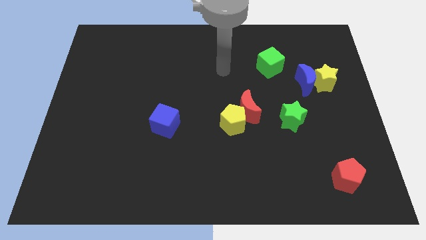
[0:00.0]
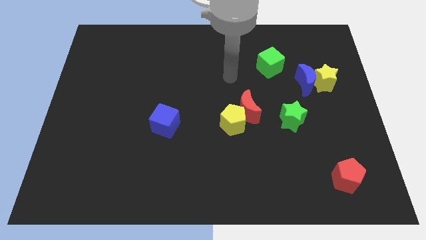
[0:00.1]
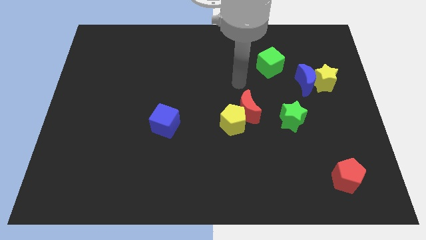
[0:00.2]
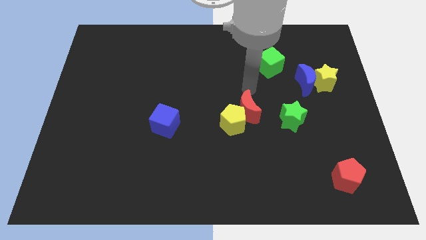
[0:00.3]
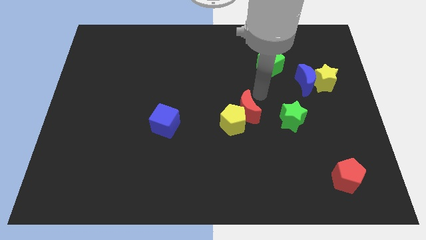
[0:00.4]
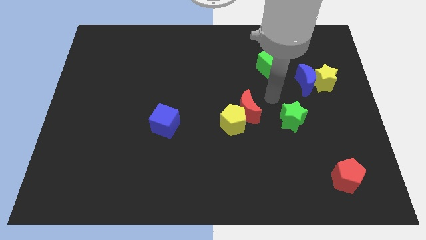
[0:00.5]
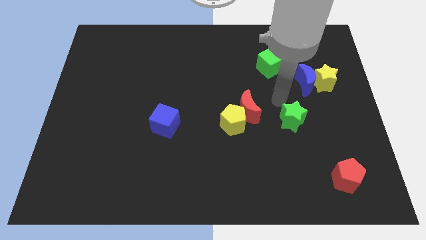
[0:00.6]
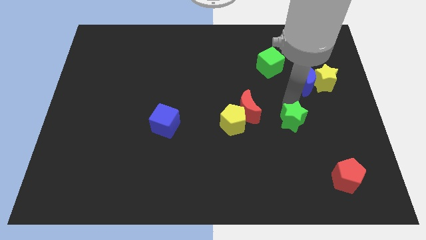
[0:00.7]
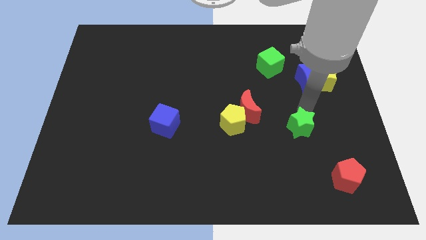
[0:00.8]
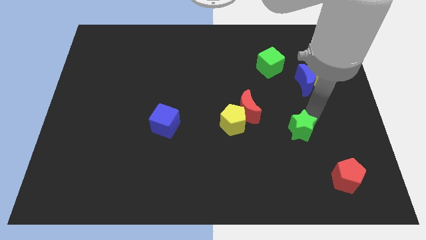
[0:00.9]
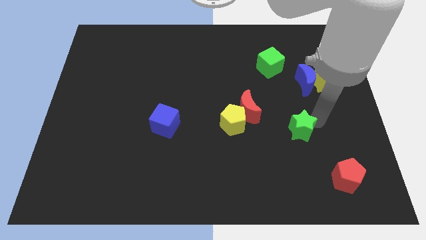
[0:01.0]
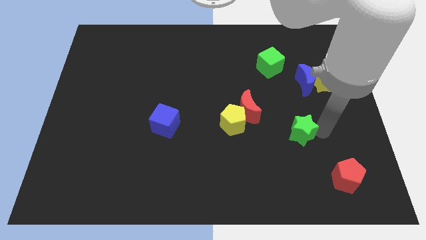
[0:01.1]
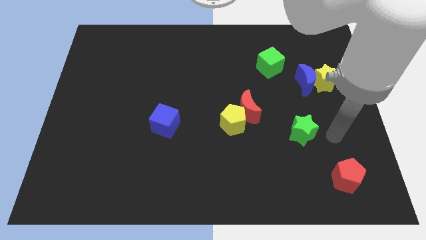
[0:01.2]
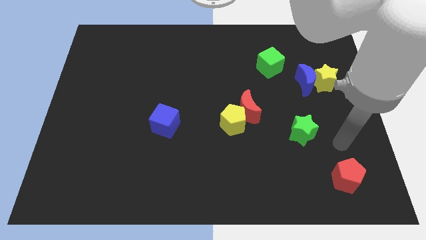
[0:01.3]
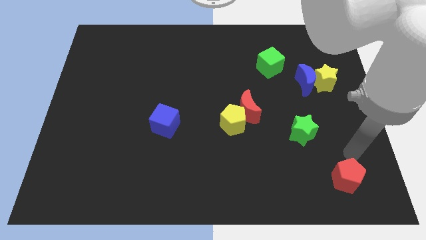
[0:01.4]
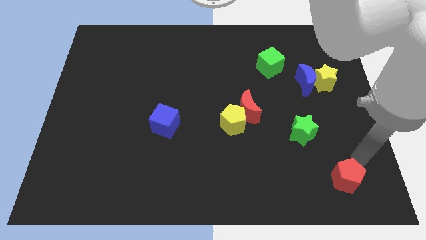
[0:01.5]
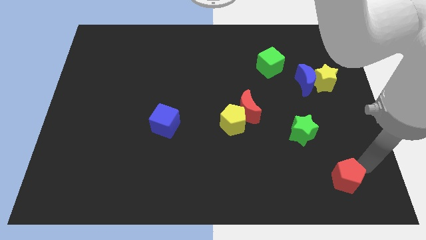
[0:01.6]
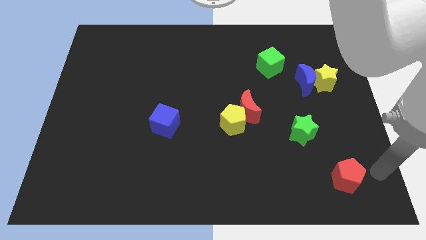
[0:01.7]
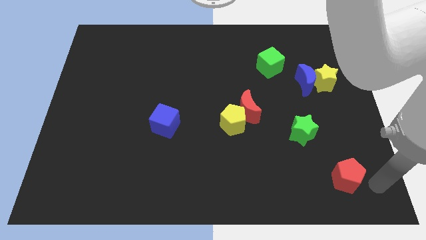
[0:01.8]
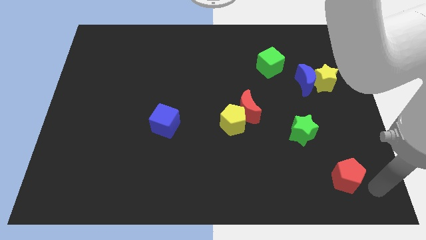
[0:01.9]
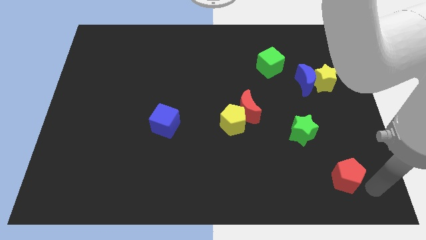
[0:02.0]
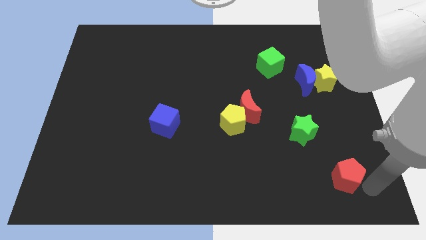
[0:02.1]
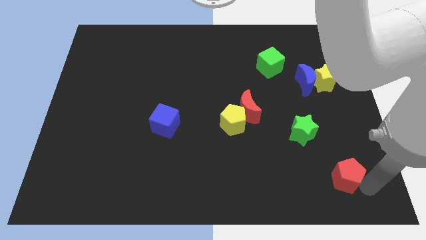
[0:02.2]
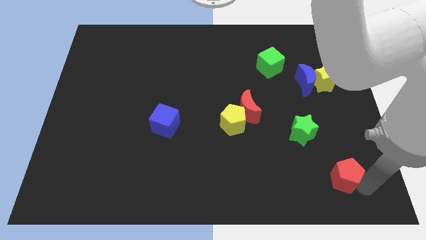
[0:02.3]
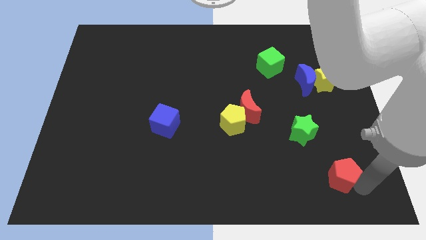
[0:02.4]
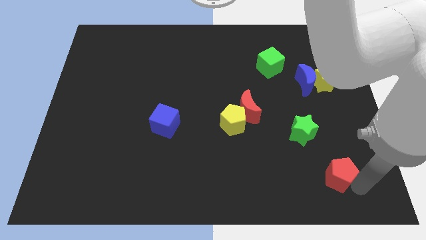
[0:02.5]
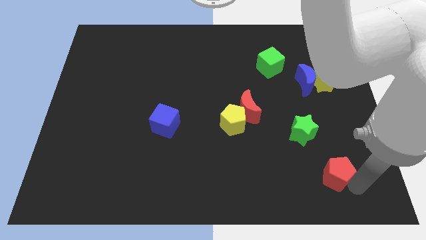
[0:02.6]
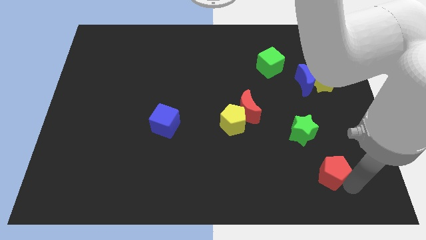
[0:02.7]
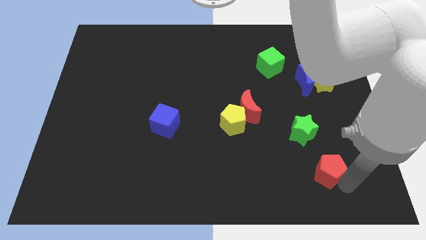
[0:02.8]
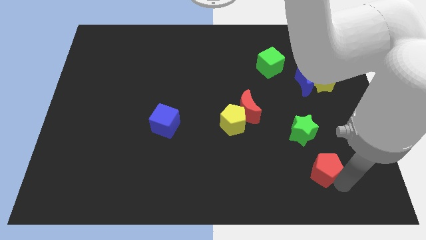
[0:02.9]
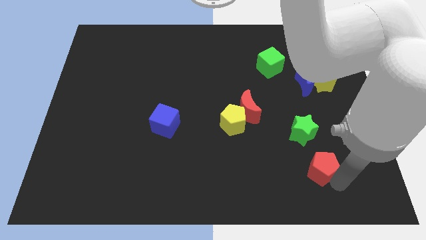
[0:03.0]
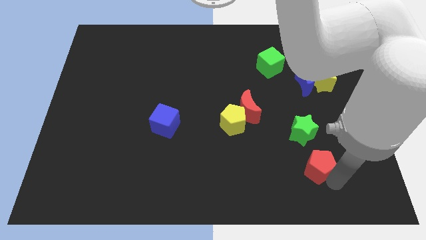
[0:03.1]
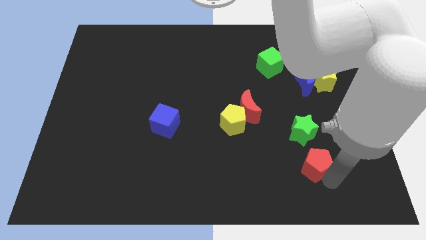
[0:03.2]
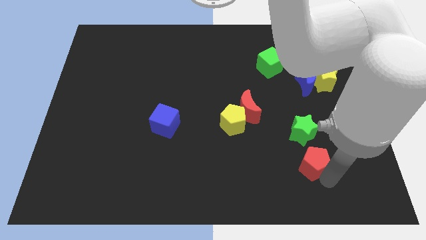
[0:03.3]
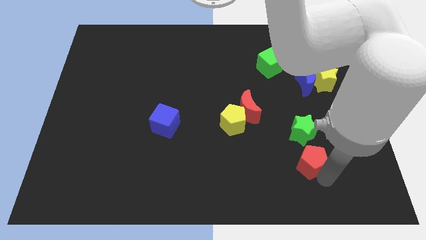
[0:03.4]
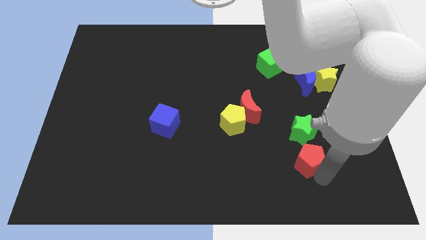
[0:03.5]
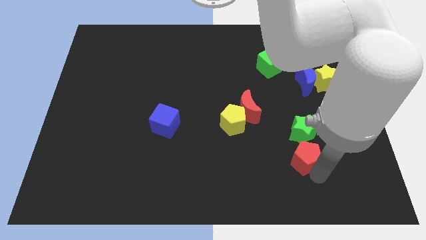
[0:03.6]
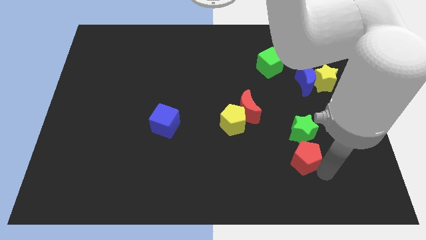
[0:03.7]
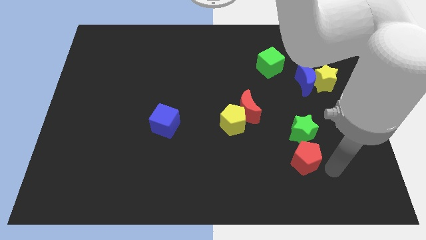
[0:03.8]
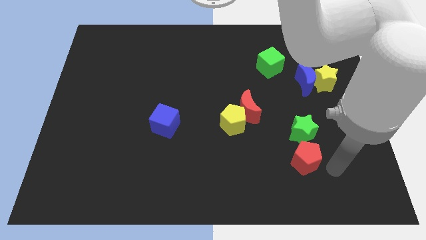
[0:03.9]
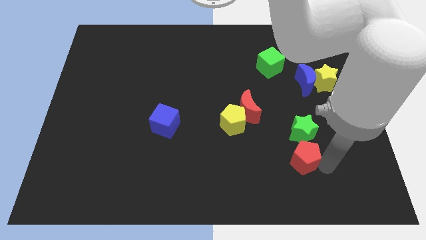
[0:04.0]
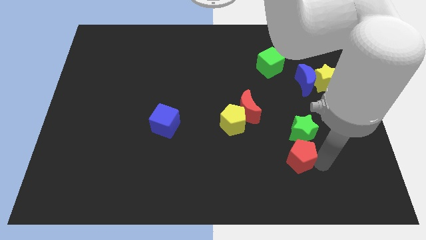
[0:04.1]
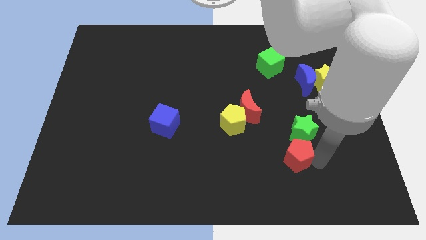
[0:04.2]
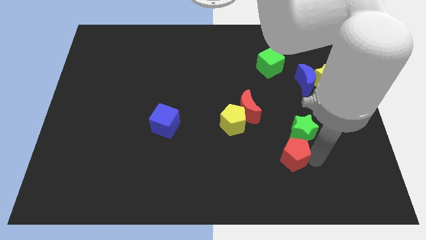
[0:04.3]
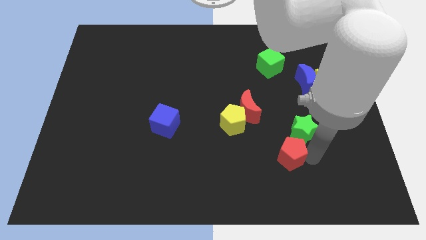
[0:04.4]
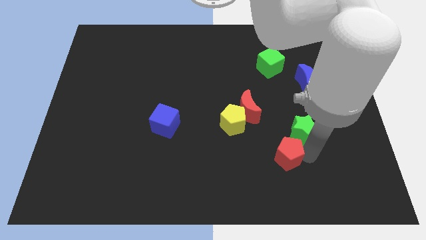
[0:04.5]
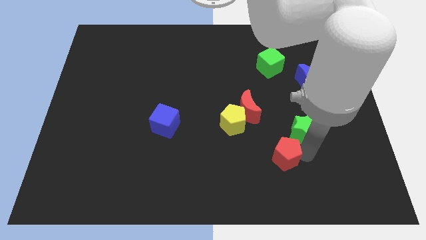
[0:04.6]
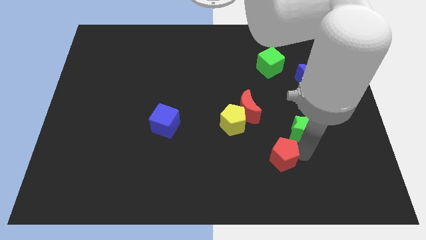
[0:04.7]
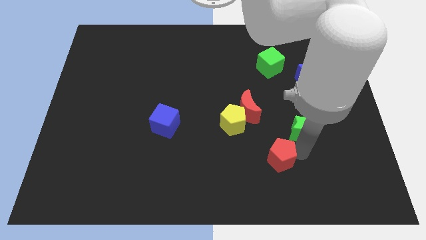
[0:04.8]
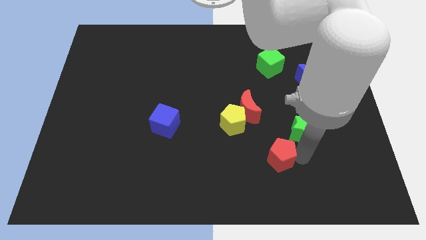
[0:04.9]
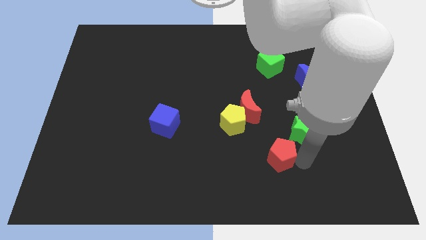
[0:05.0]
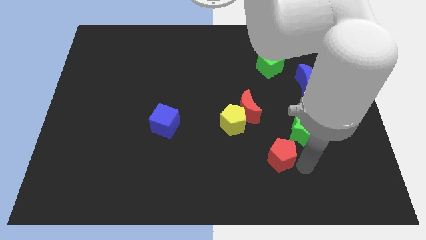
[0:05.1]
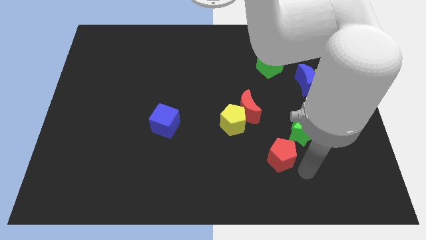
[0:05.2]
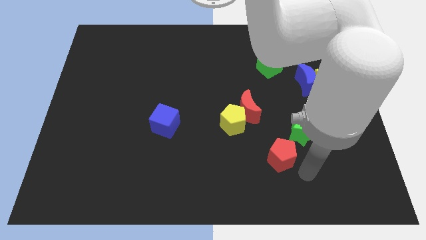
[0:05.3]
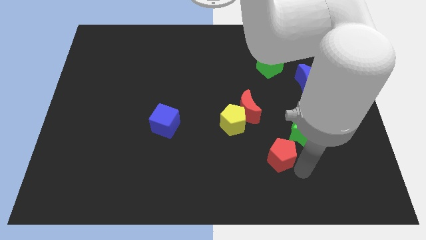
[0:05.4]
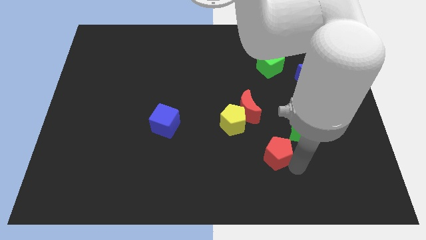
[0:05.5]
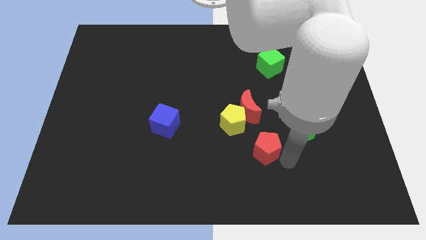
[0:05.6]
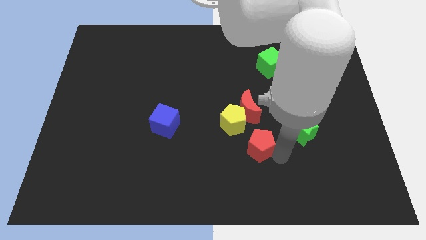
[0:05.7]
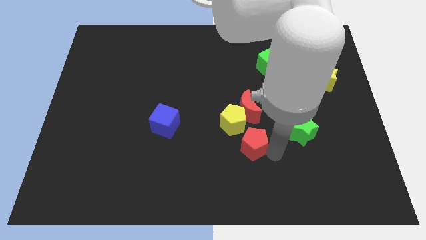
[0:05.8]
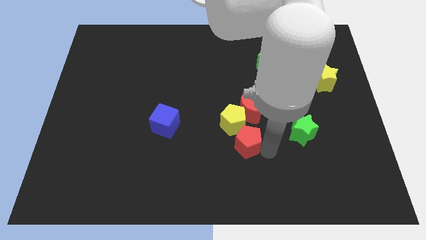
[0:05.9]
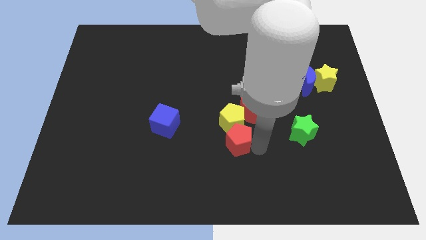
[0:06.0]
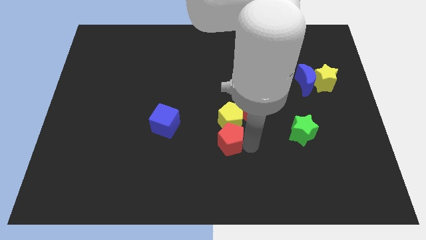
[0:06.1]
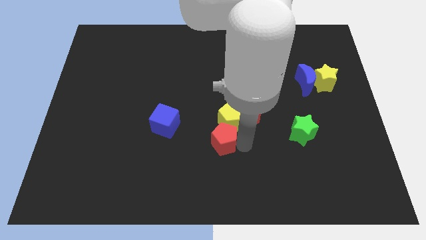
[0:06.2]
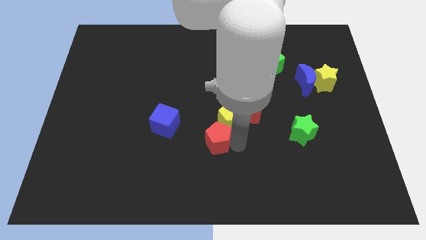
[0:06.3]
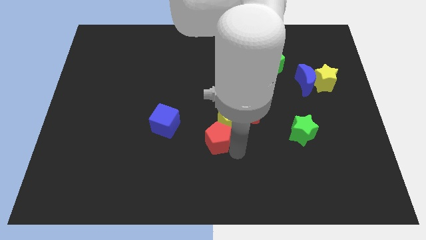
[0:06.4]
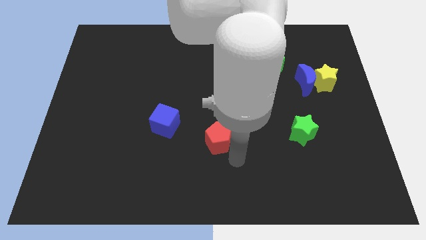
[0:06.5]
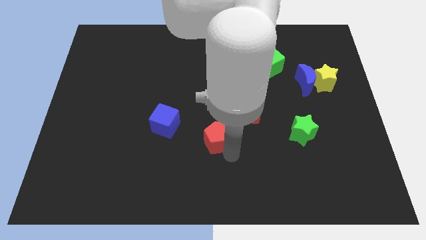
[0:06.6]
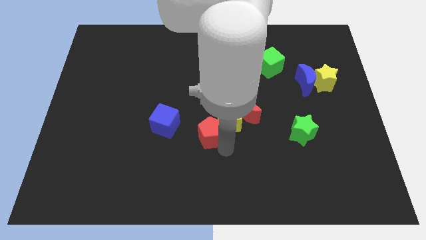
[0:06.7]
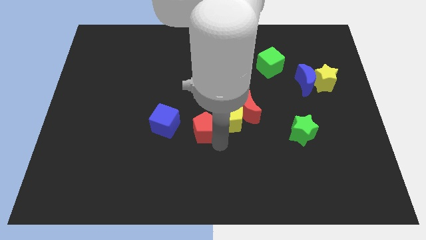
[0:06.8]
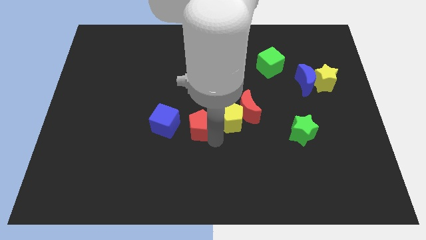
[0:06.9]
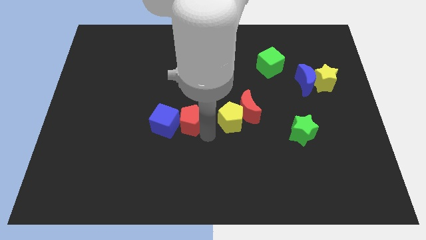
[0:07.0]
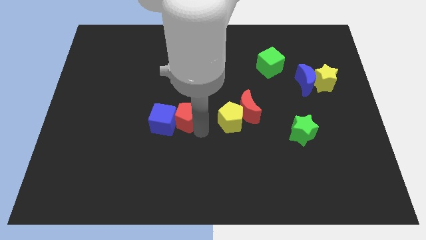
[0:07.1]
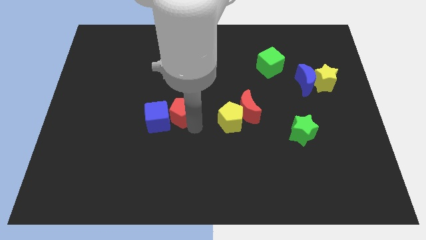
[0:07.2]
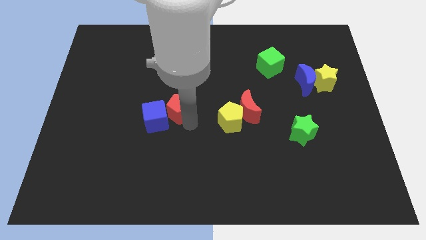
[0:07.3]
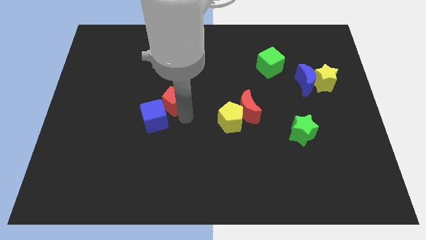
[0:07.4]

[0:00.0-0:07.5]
put the red pentagon to the top side of the blue cube
